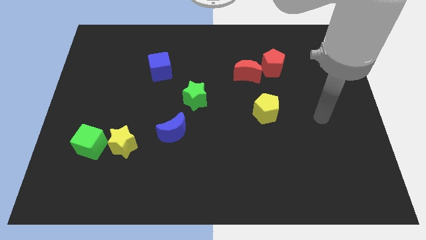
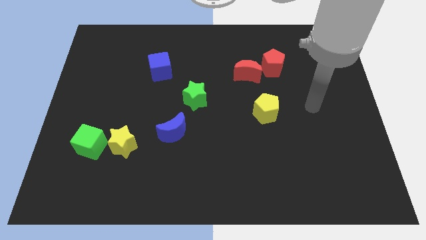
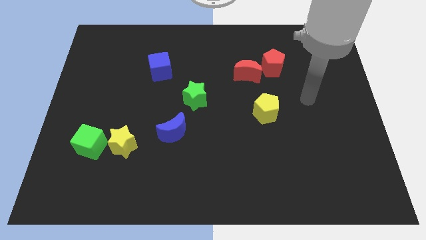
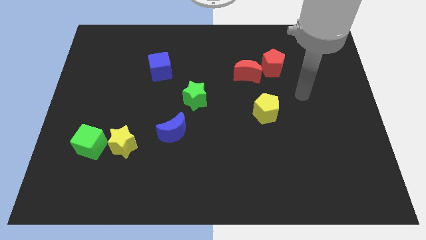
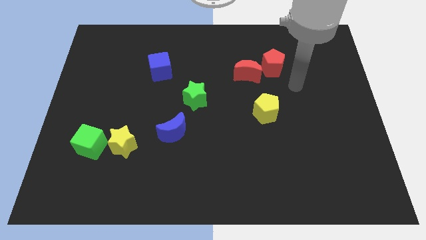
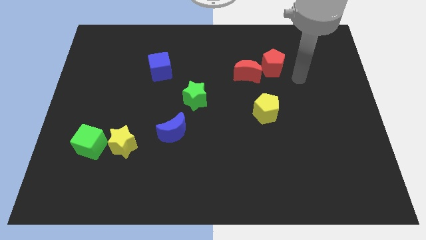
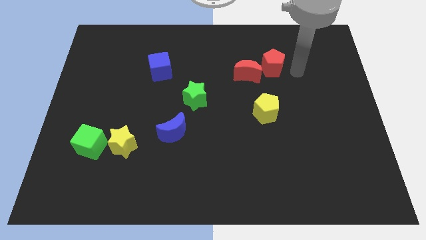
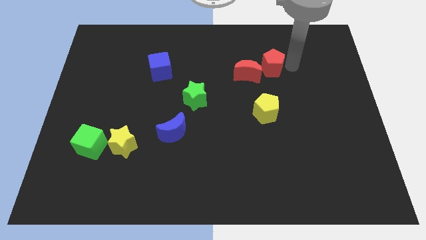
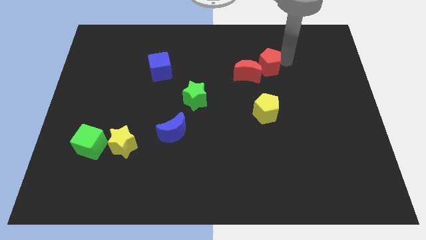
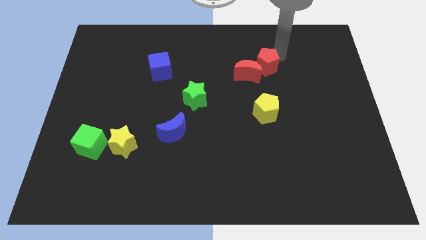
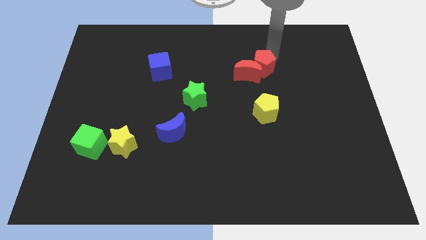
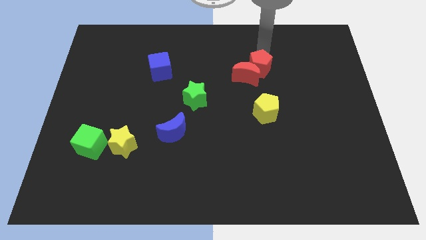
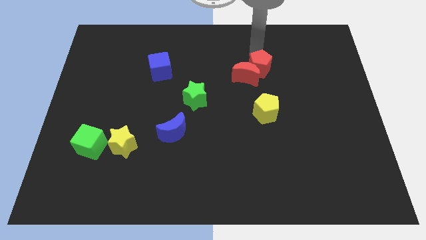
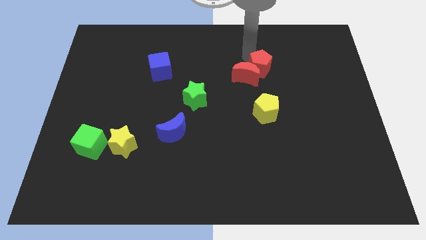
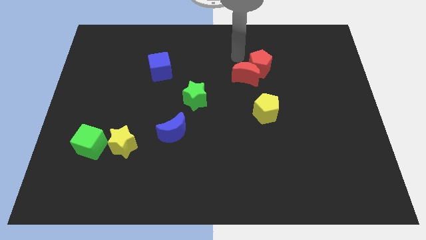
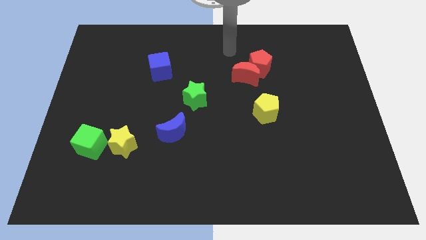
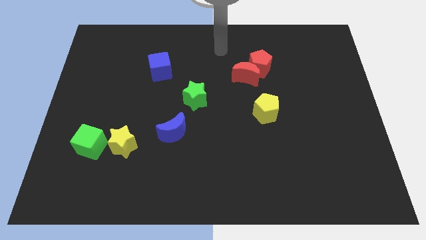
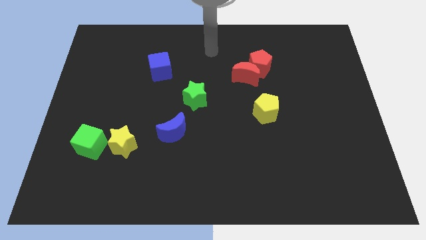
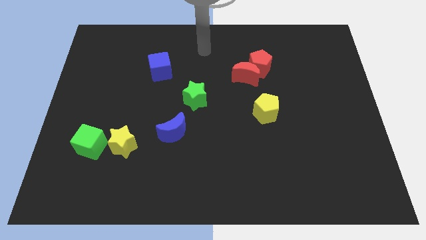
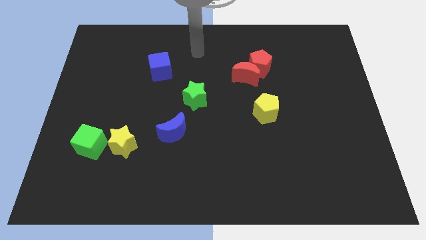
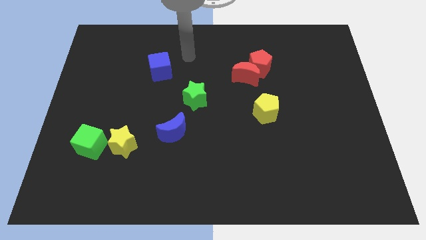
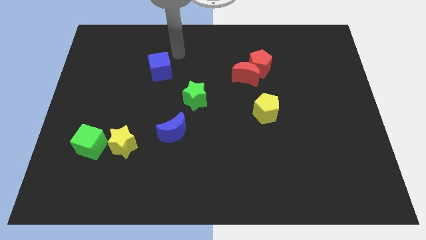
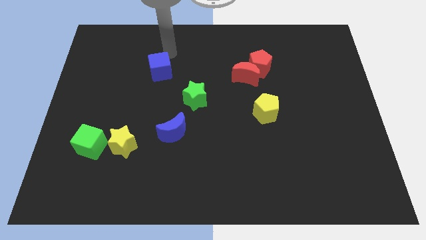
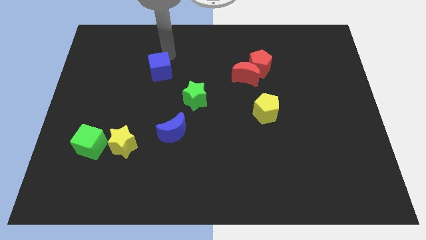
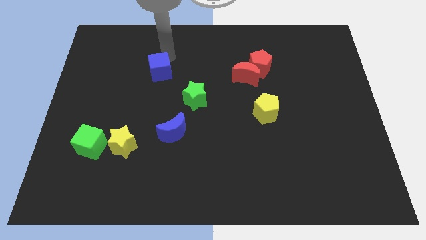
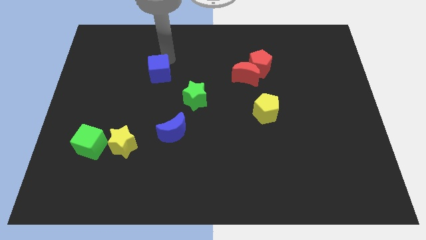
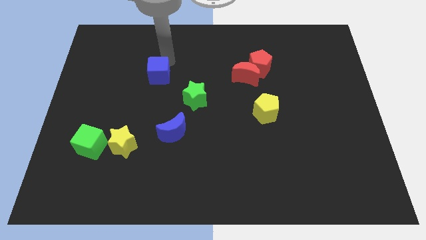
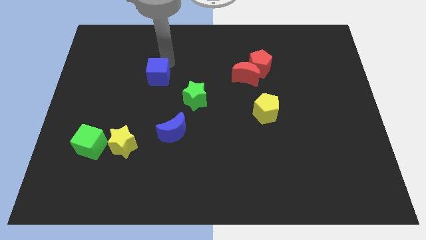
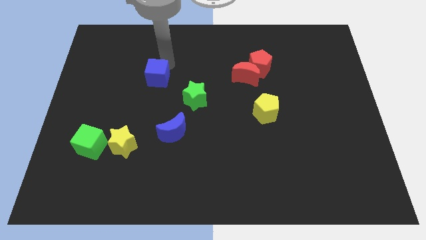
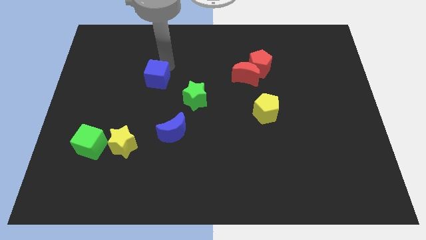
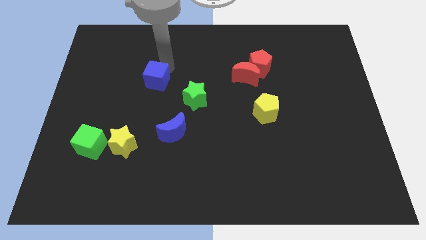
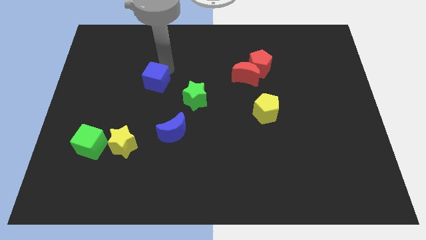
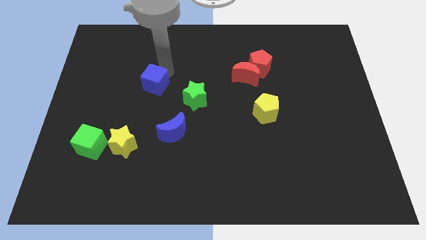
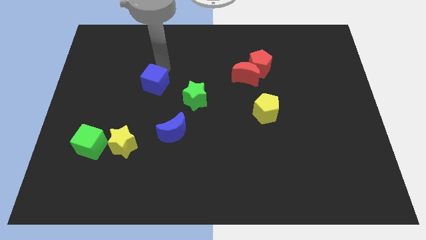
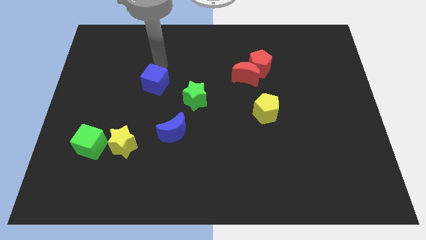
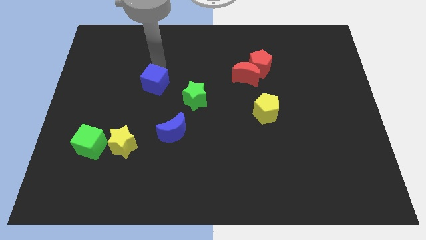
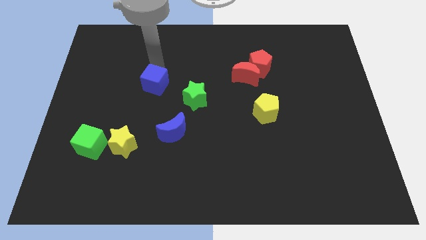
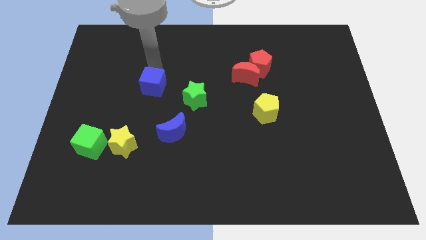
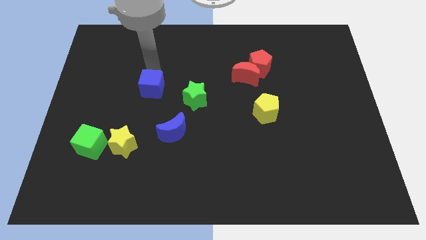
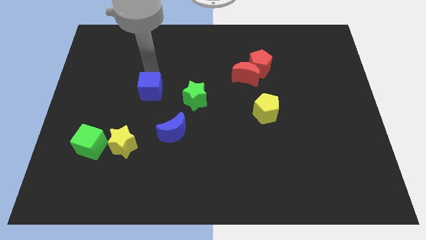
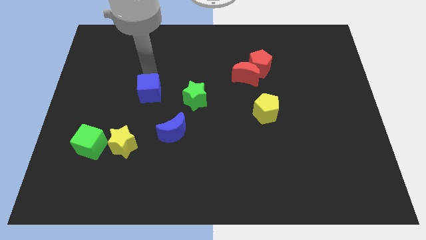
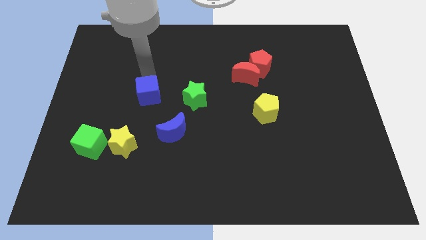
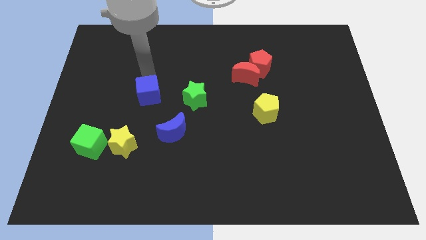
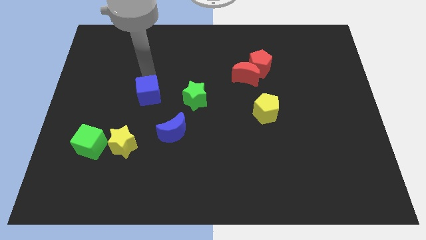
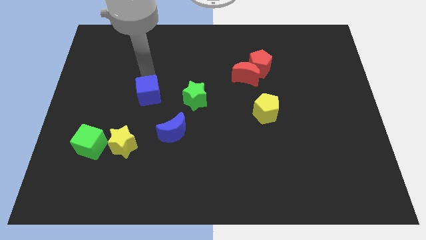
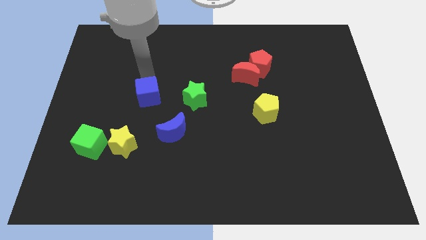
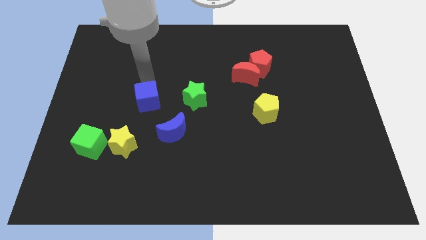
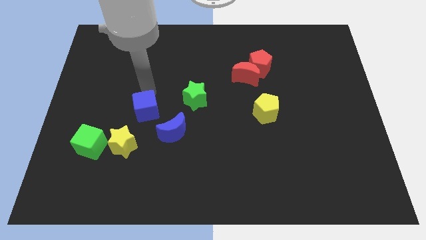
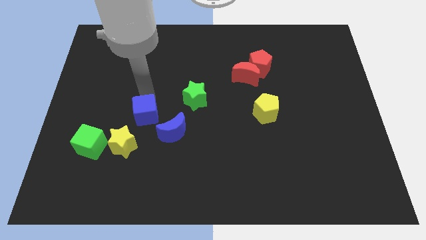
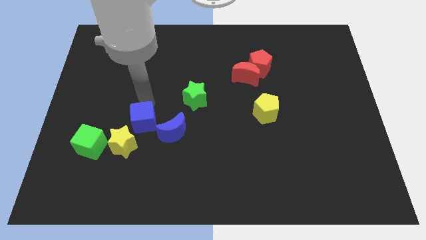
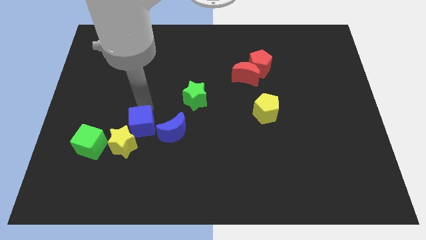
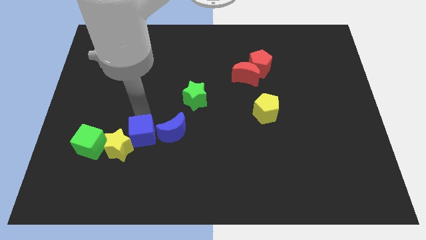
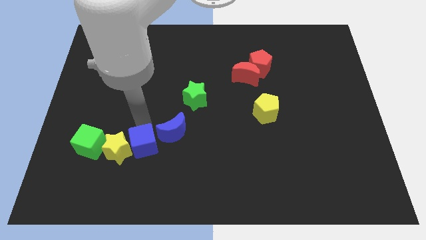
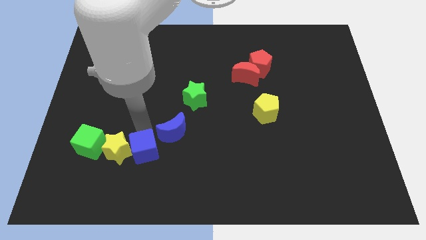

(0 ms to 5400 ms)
put the blue cube diagonally down and to the right of the yellow star

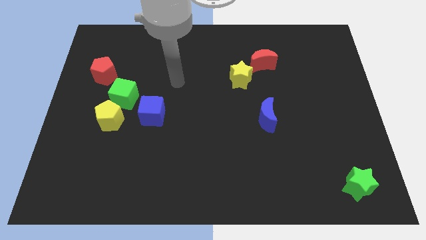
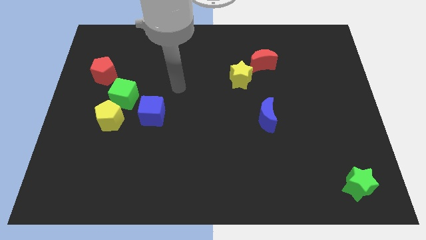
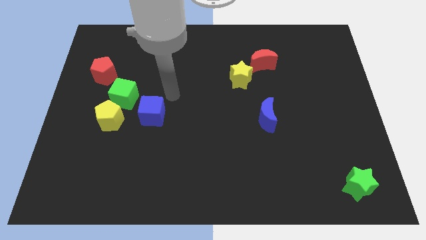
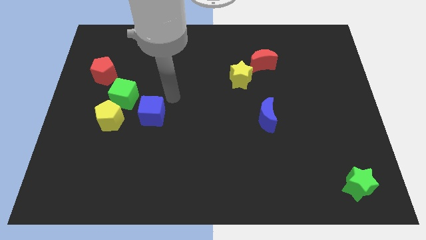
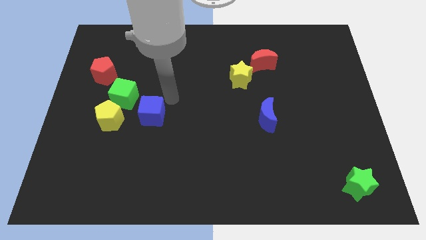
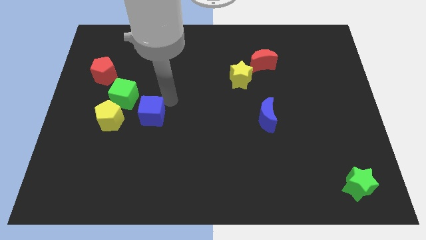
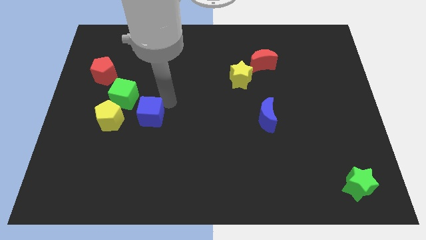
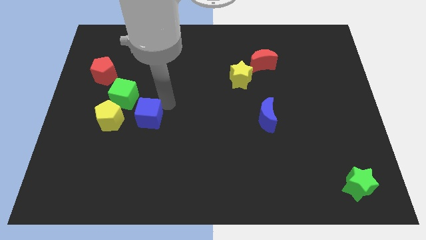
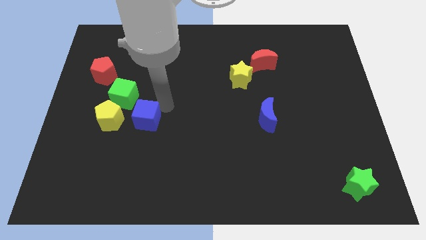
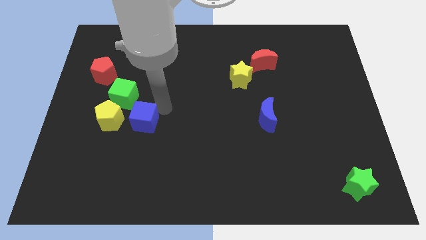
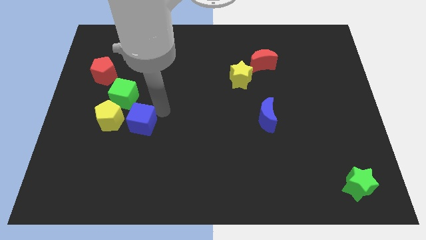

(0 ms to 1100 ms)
put the blue cube to the bottom right side of the yellow pentagon

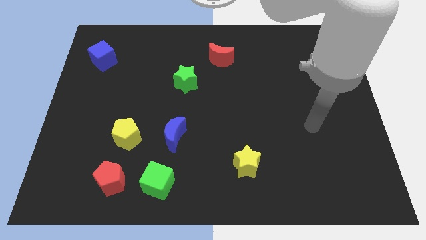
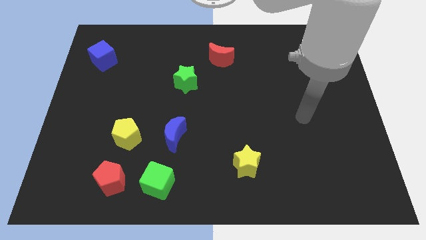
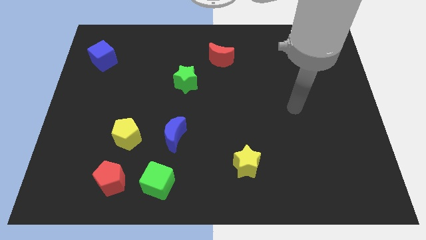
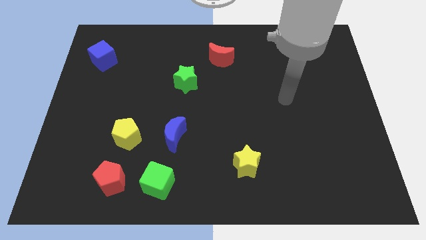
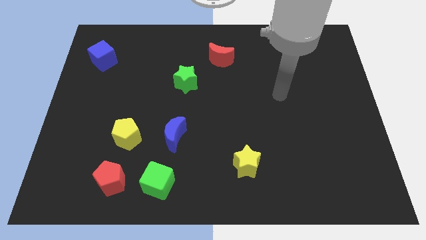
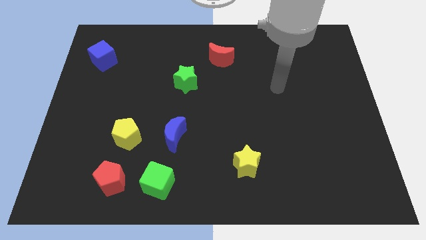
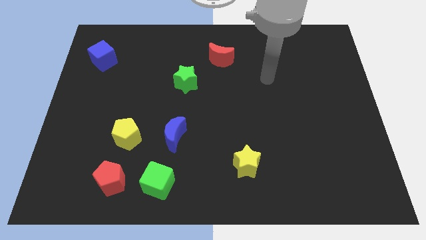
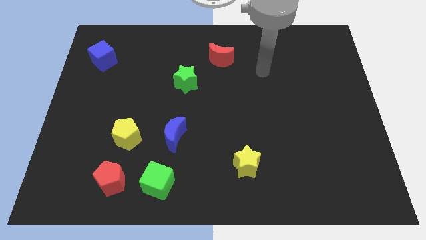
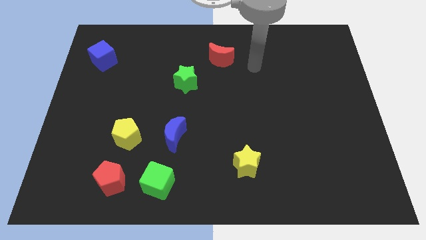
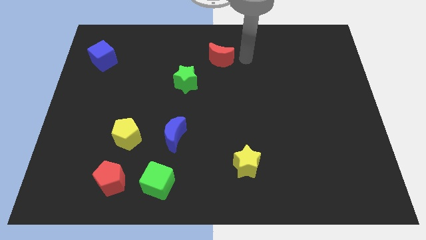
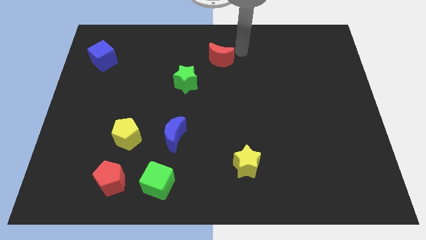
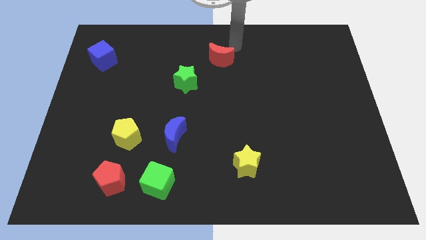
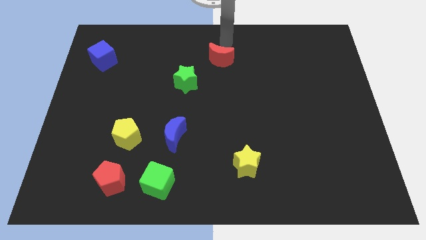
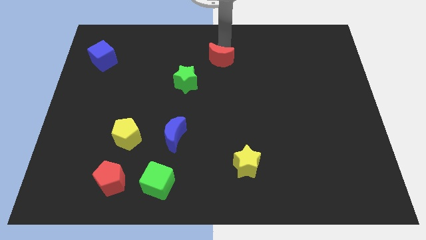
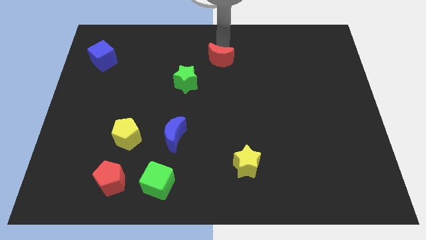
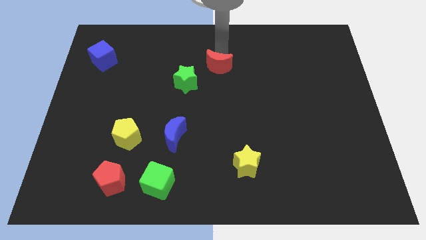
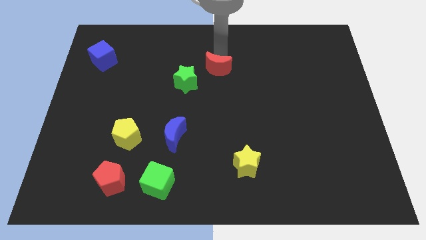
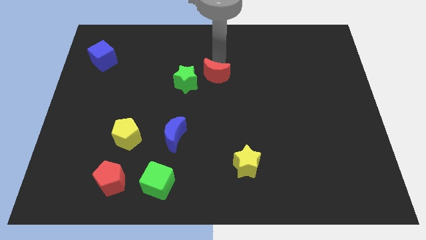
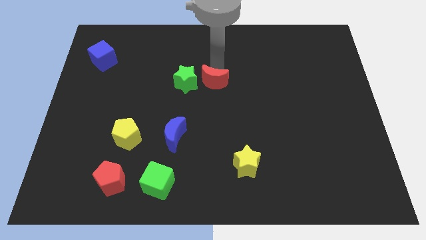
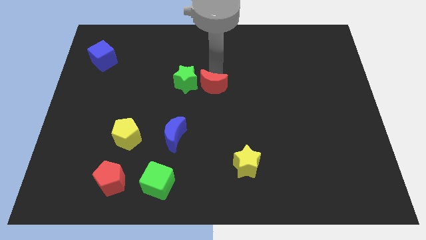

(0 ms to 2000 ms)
move the red moon to the bottom right of the green star
